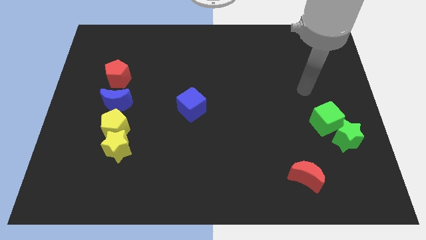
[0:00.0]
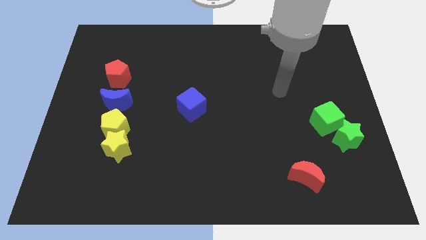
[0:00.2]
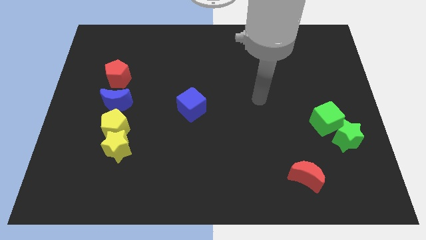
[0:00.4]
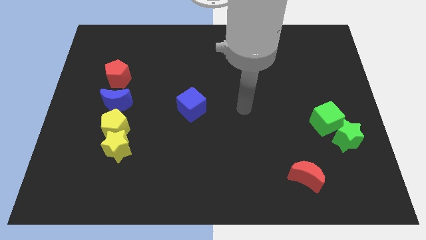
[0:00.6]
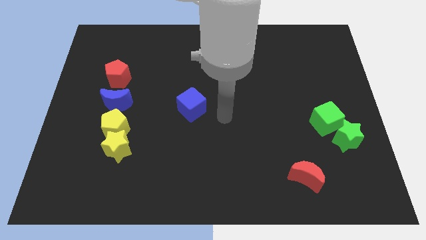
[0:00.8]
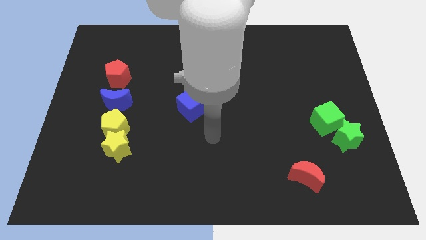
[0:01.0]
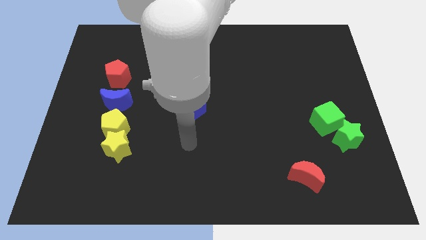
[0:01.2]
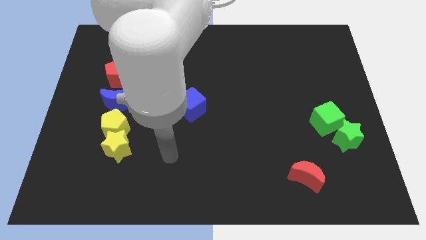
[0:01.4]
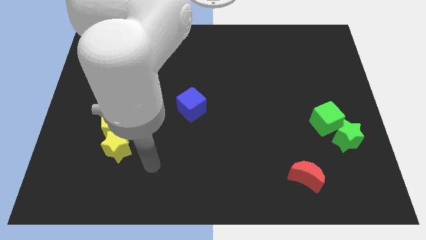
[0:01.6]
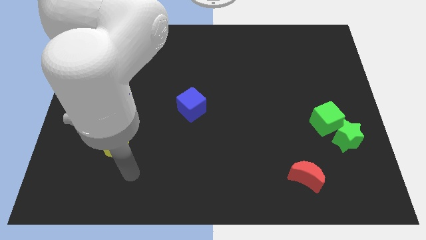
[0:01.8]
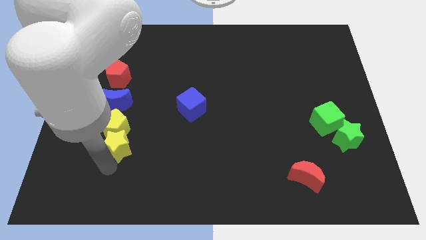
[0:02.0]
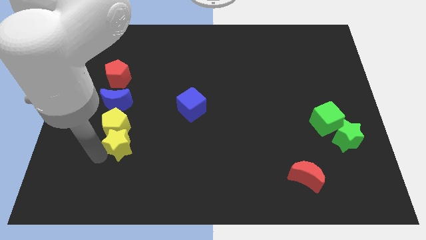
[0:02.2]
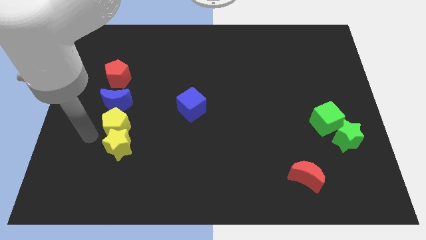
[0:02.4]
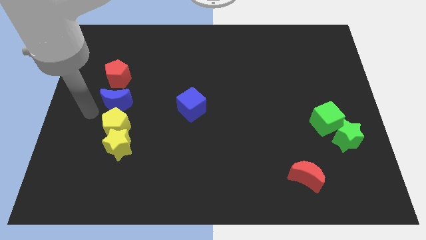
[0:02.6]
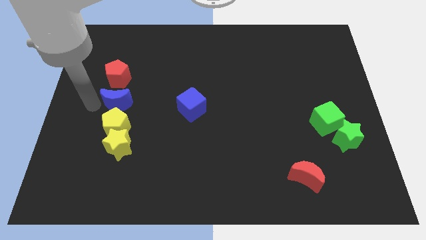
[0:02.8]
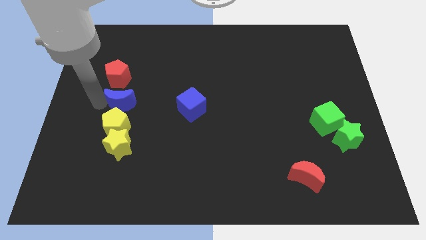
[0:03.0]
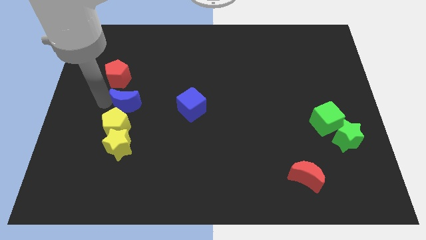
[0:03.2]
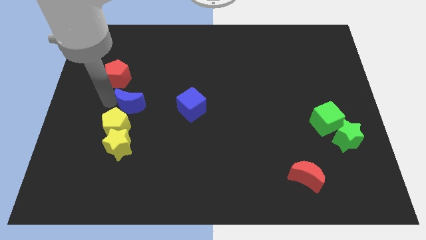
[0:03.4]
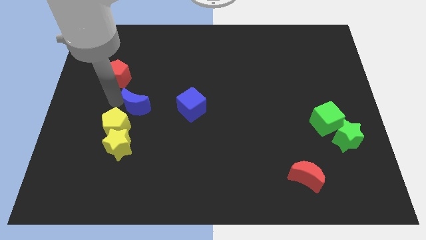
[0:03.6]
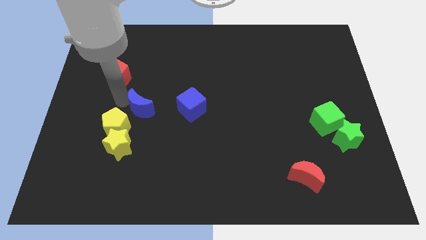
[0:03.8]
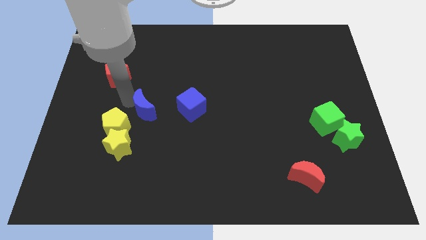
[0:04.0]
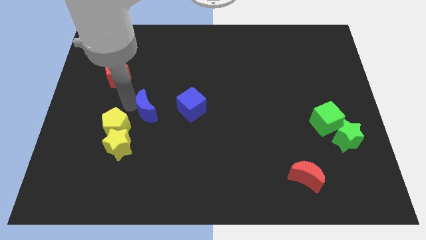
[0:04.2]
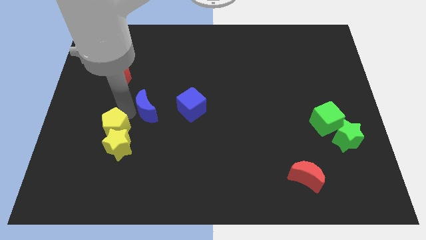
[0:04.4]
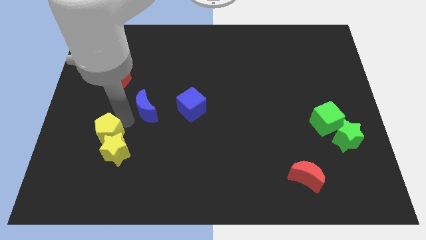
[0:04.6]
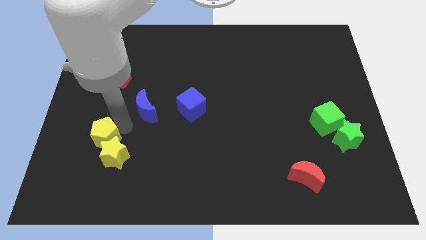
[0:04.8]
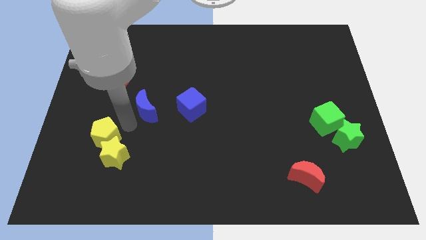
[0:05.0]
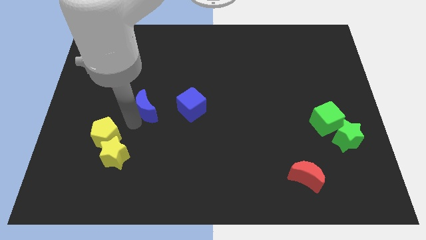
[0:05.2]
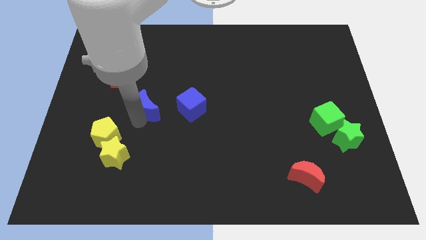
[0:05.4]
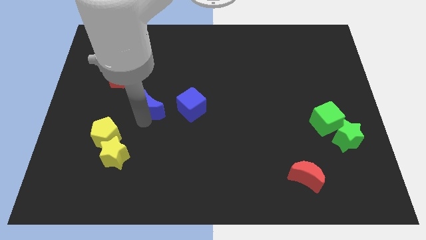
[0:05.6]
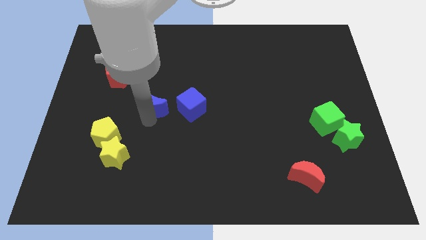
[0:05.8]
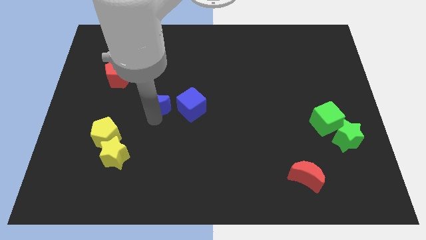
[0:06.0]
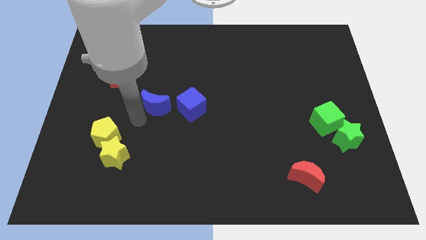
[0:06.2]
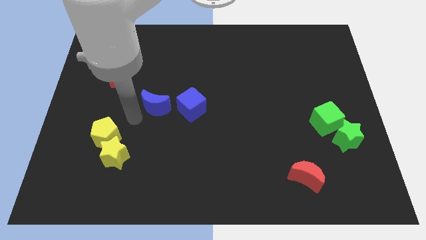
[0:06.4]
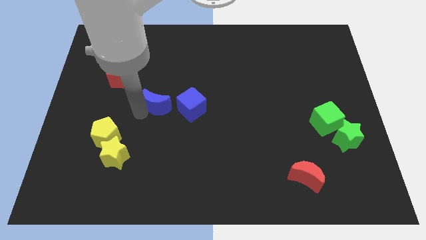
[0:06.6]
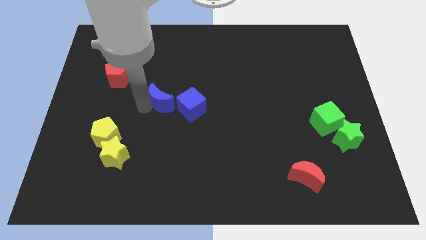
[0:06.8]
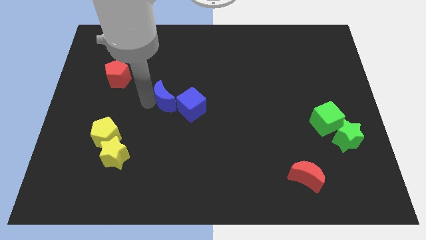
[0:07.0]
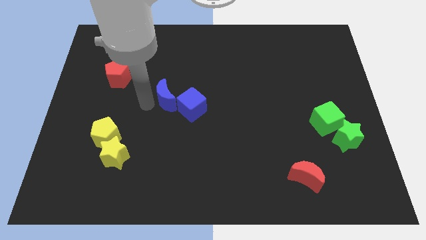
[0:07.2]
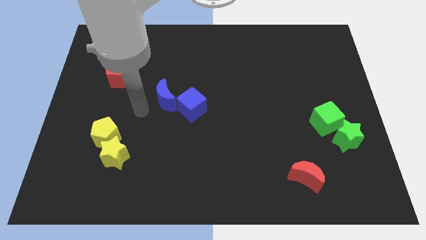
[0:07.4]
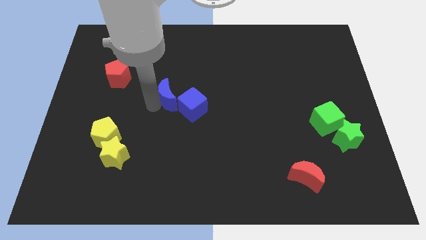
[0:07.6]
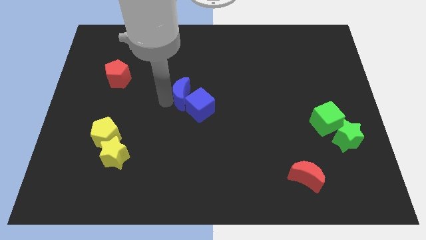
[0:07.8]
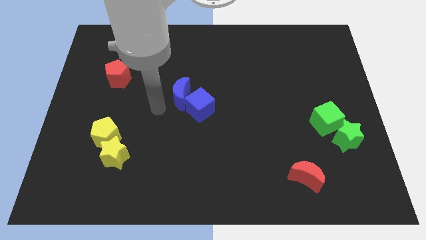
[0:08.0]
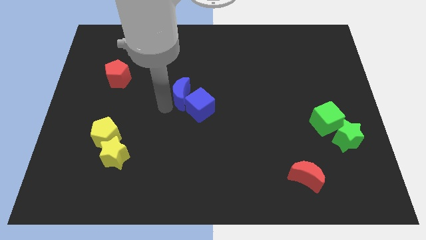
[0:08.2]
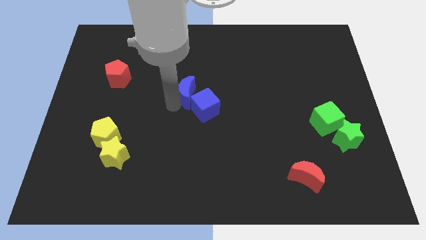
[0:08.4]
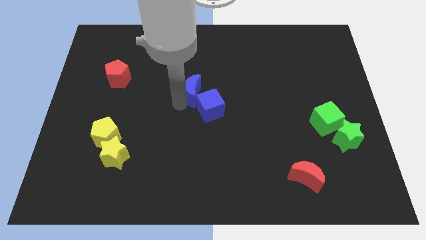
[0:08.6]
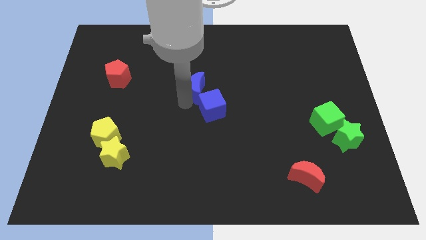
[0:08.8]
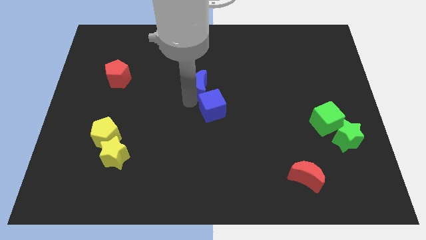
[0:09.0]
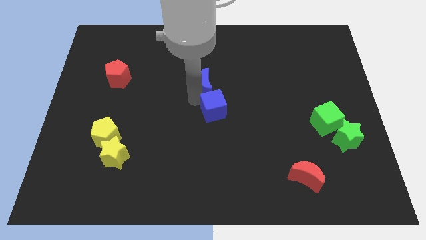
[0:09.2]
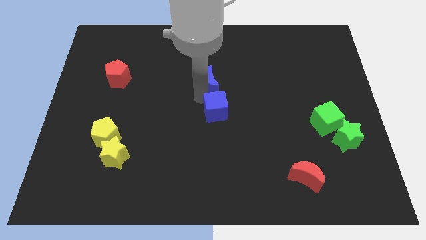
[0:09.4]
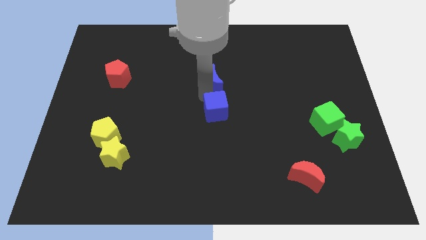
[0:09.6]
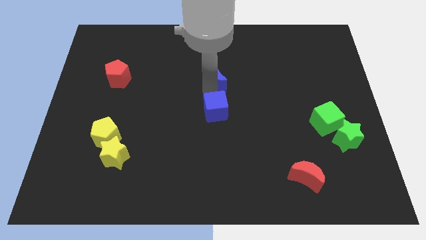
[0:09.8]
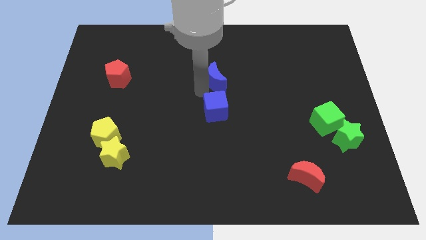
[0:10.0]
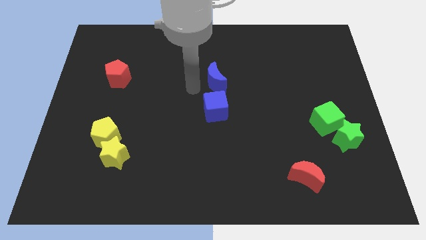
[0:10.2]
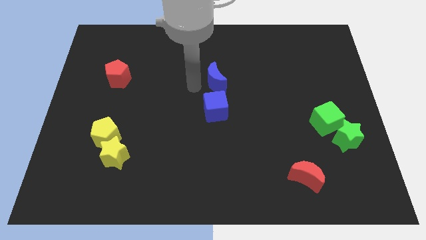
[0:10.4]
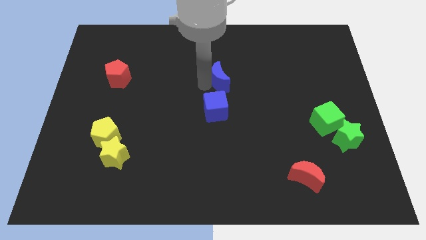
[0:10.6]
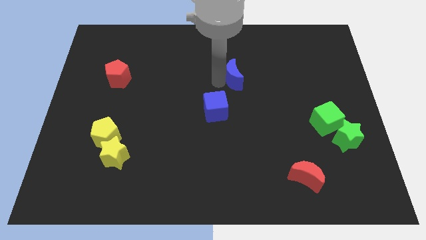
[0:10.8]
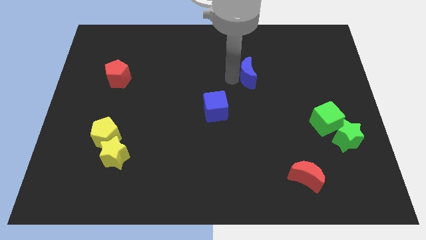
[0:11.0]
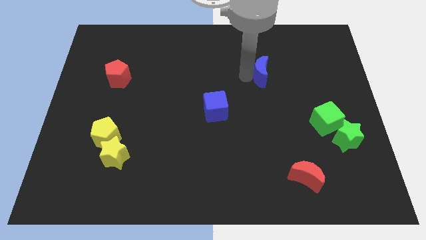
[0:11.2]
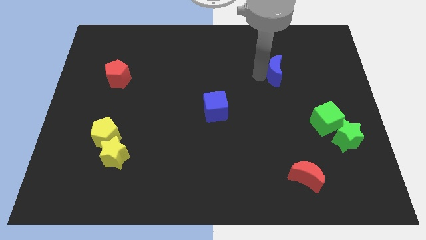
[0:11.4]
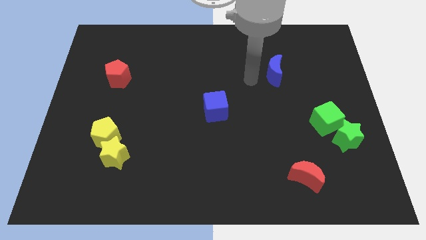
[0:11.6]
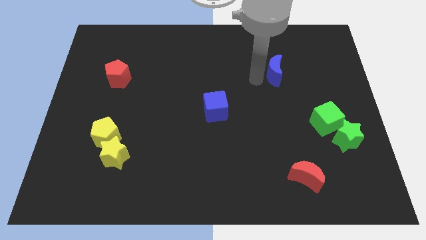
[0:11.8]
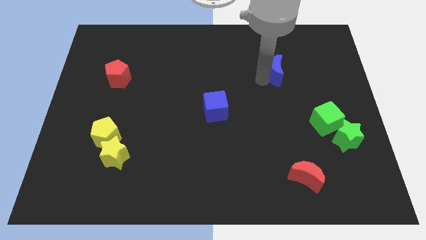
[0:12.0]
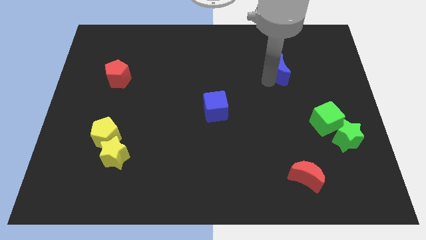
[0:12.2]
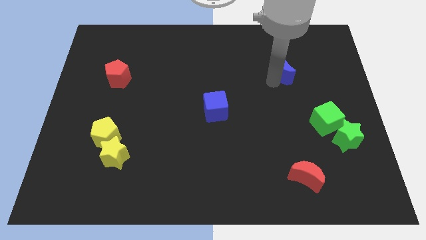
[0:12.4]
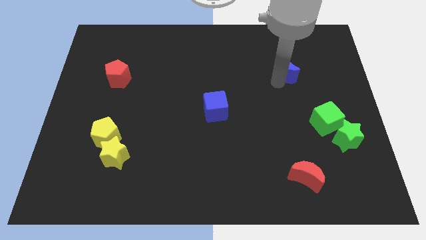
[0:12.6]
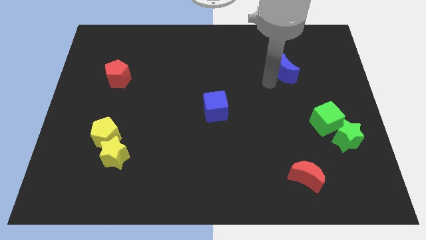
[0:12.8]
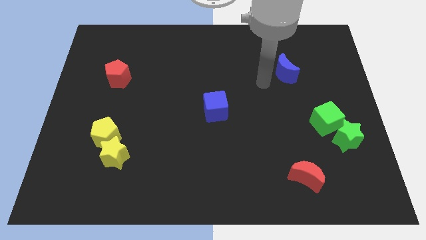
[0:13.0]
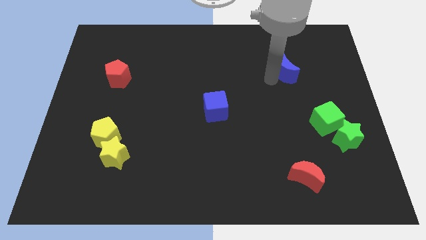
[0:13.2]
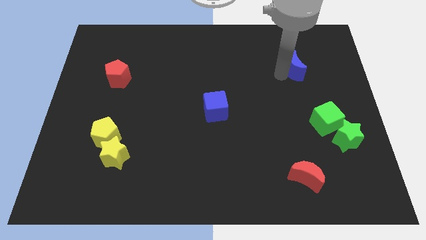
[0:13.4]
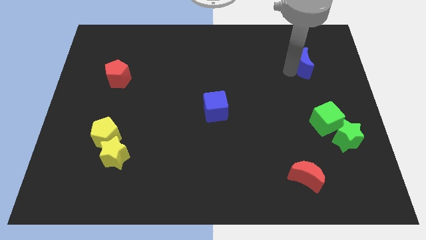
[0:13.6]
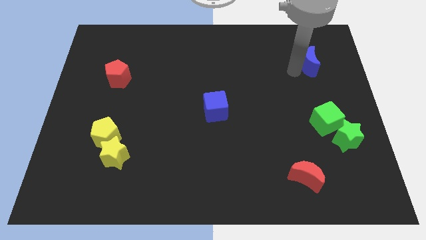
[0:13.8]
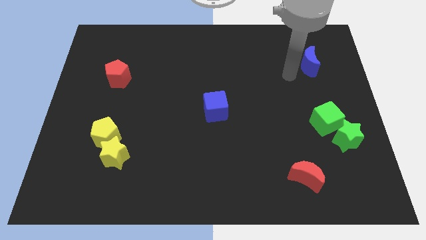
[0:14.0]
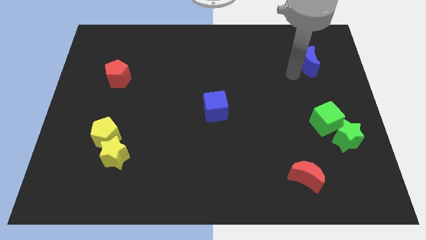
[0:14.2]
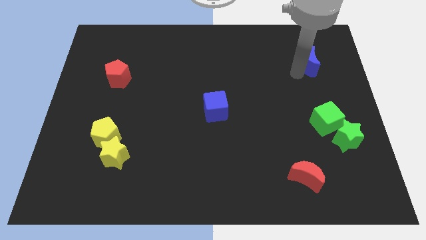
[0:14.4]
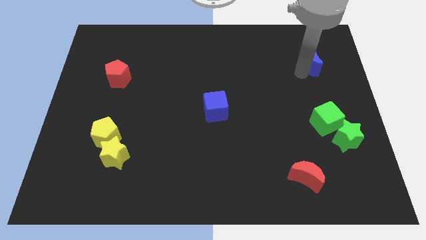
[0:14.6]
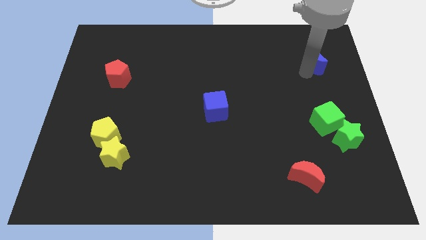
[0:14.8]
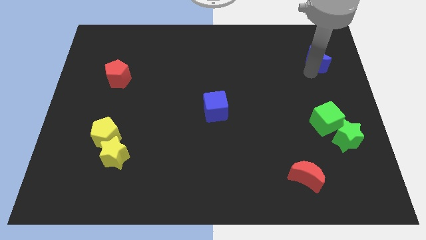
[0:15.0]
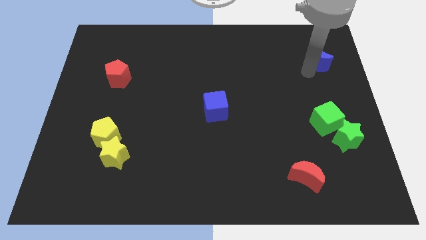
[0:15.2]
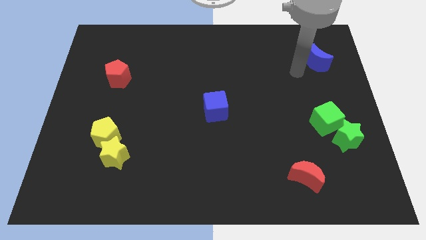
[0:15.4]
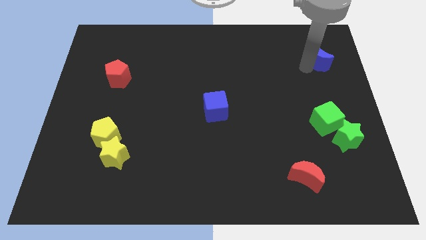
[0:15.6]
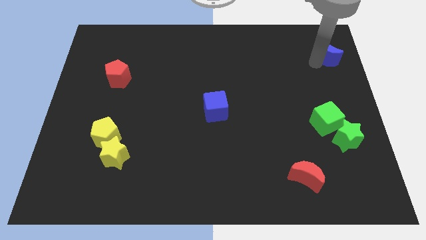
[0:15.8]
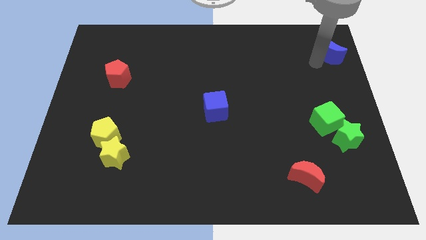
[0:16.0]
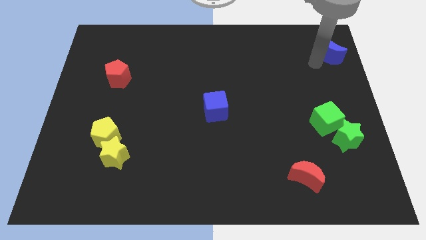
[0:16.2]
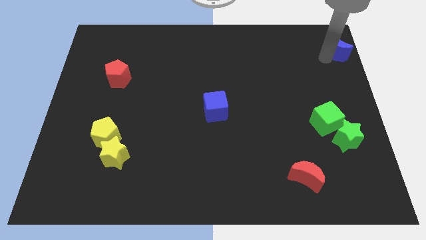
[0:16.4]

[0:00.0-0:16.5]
push the blue moon to the upper right corner
